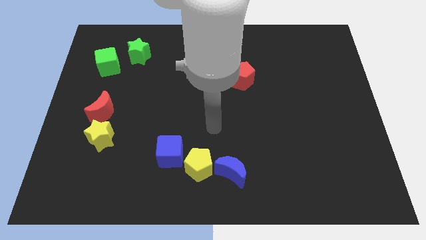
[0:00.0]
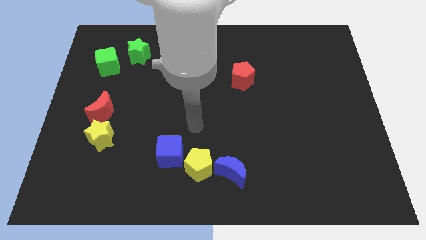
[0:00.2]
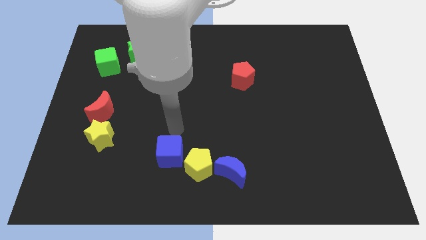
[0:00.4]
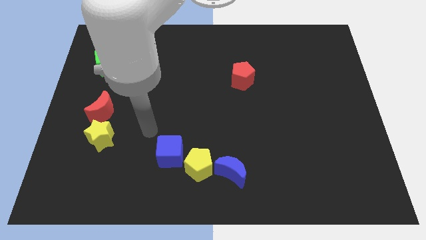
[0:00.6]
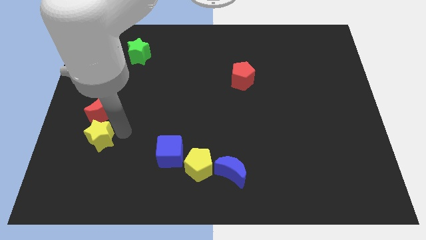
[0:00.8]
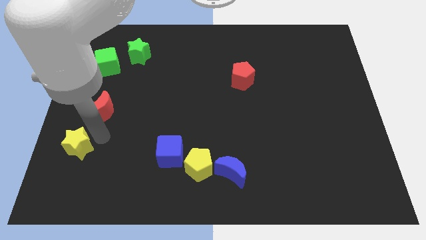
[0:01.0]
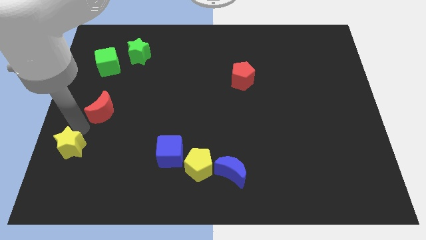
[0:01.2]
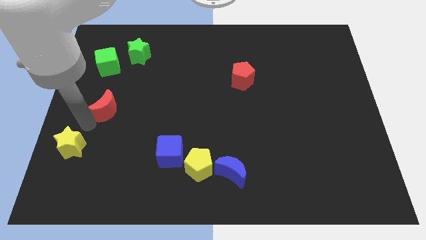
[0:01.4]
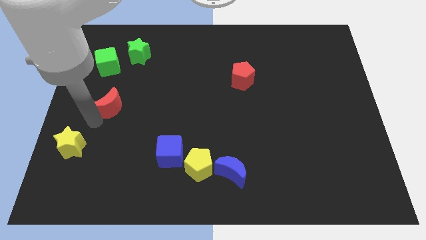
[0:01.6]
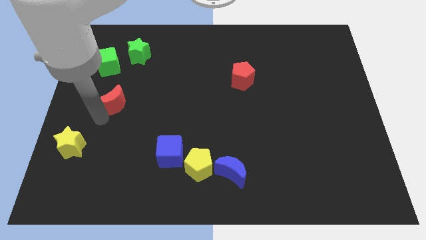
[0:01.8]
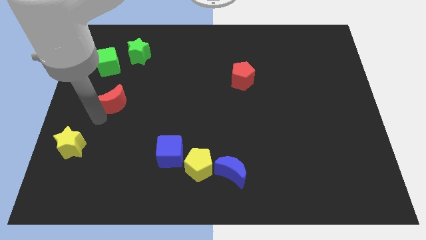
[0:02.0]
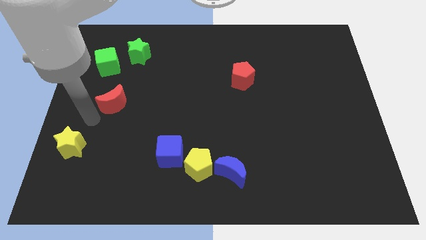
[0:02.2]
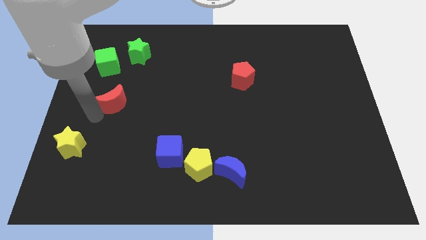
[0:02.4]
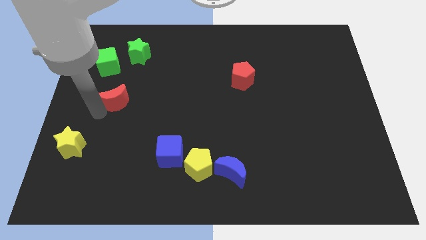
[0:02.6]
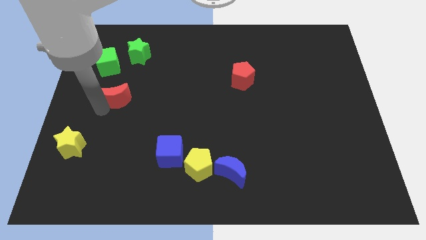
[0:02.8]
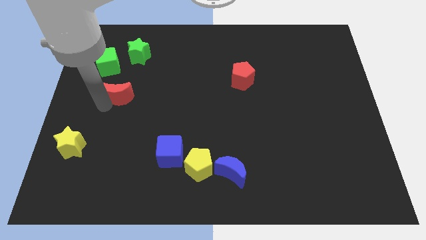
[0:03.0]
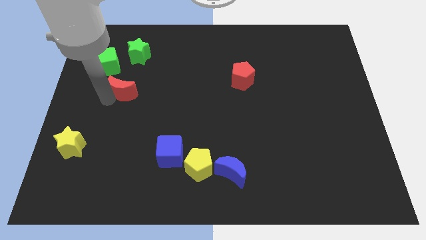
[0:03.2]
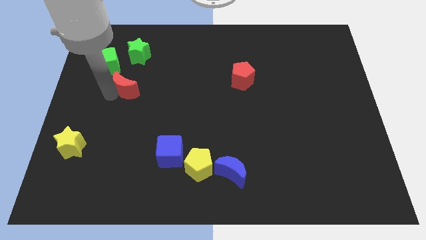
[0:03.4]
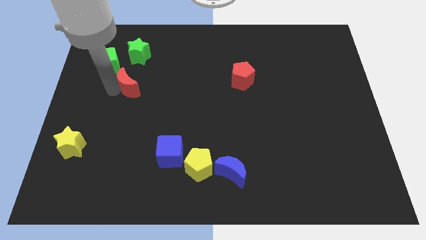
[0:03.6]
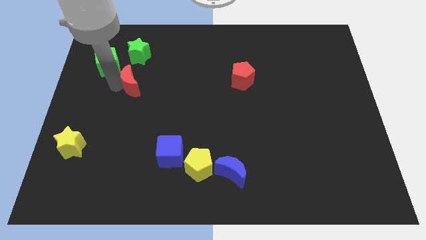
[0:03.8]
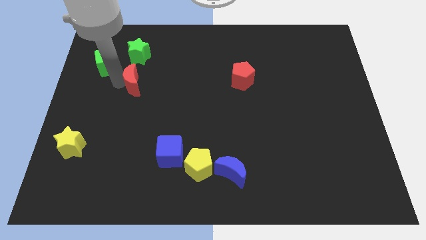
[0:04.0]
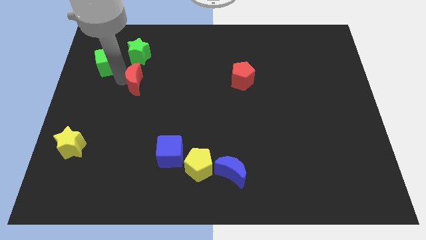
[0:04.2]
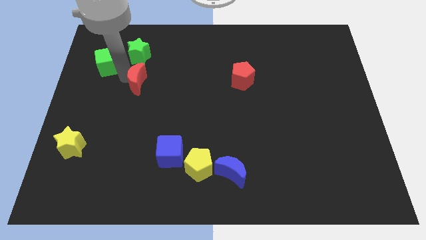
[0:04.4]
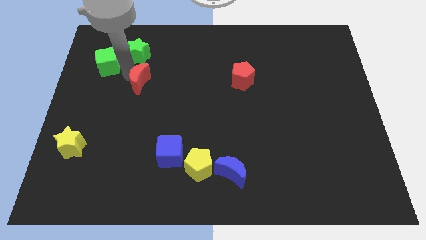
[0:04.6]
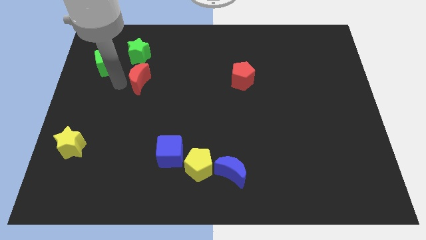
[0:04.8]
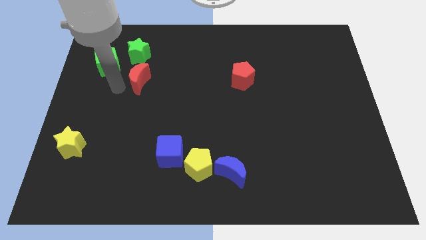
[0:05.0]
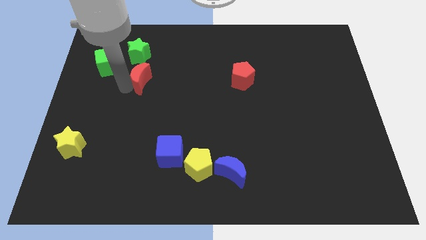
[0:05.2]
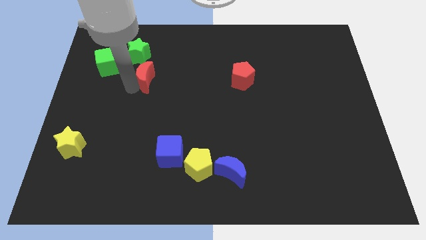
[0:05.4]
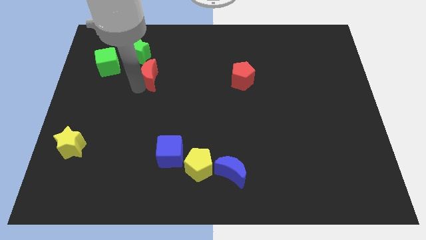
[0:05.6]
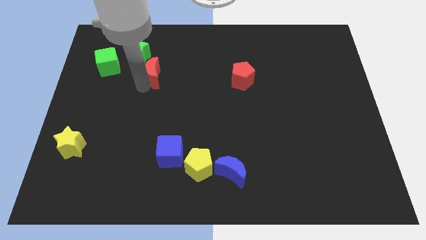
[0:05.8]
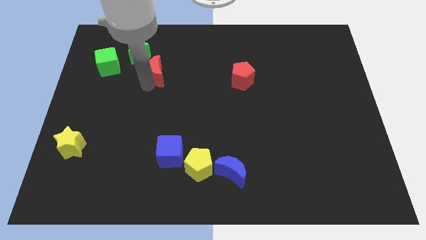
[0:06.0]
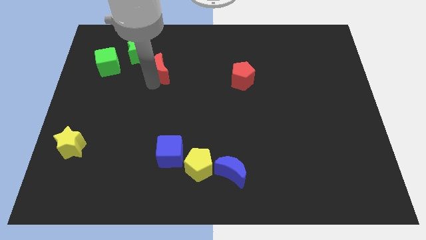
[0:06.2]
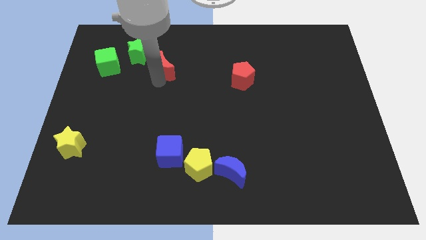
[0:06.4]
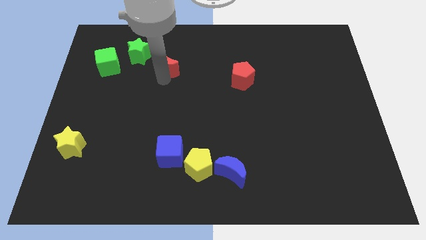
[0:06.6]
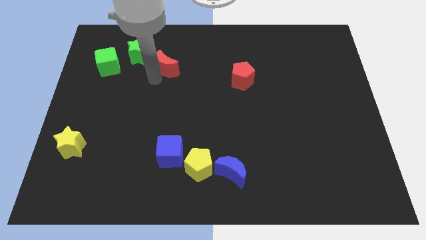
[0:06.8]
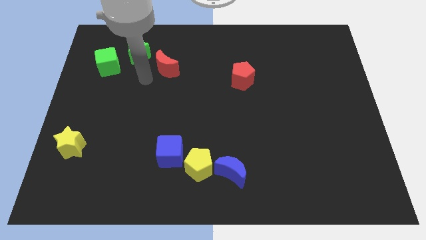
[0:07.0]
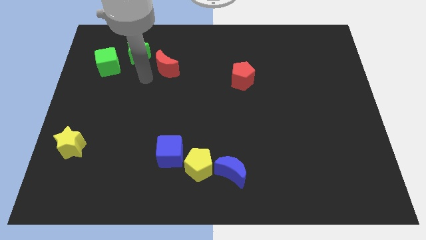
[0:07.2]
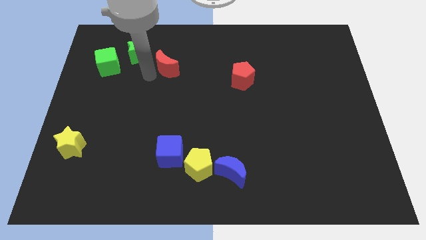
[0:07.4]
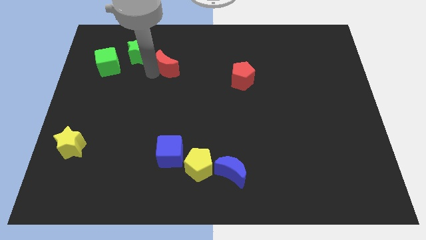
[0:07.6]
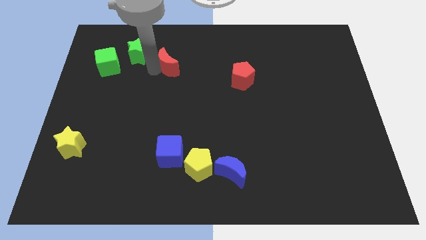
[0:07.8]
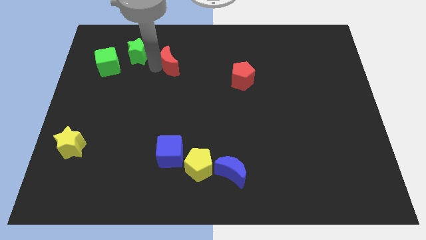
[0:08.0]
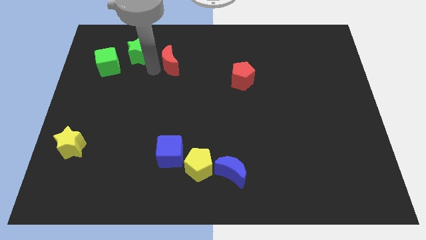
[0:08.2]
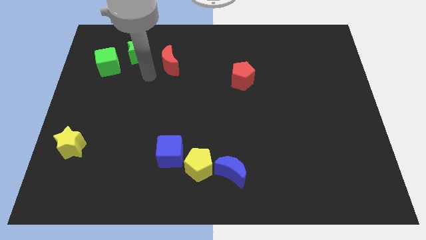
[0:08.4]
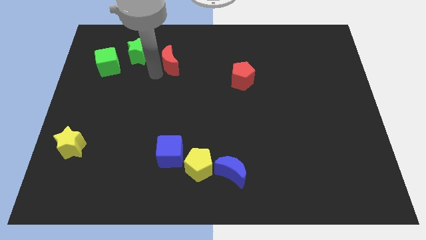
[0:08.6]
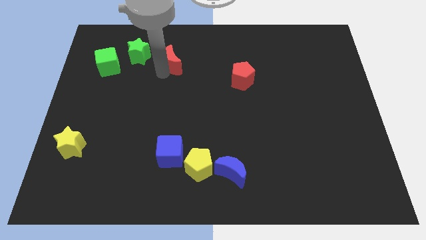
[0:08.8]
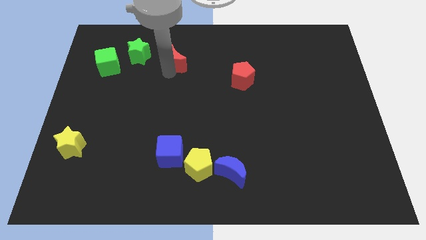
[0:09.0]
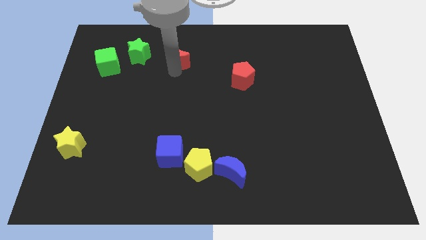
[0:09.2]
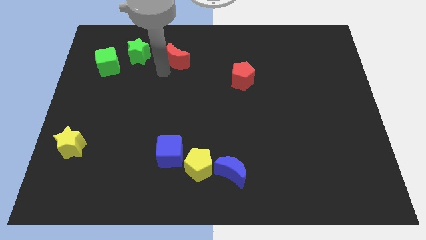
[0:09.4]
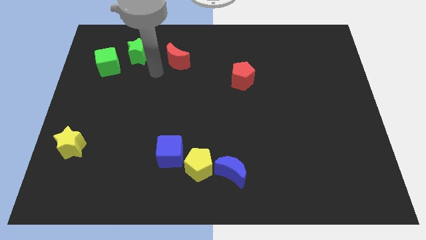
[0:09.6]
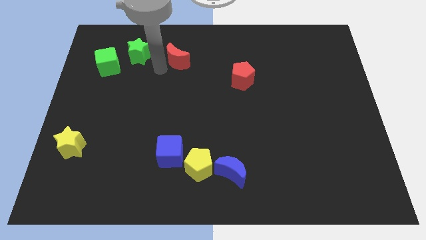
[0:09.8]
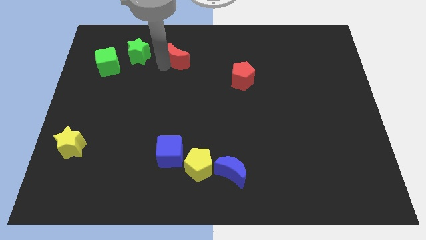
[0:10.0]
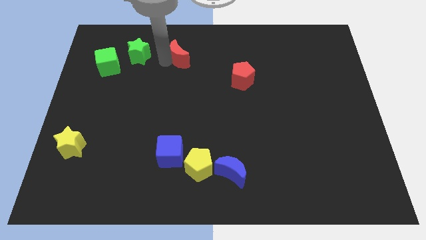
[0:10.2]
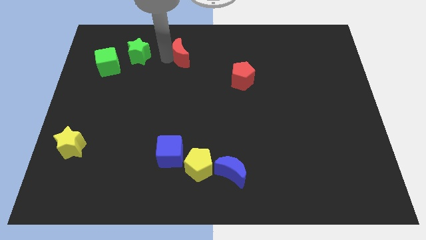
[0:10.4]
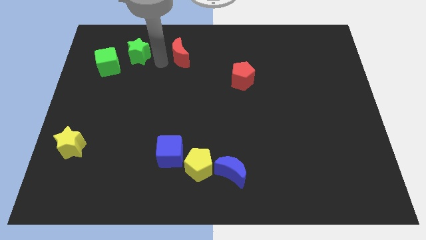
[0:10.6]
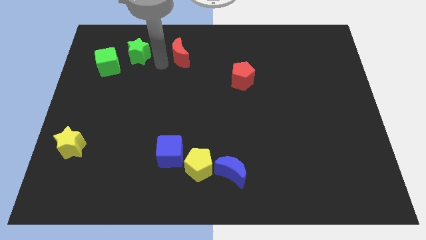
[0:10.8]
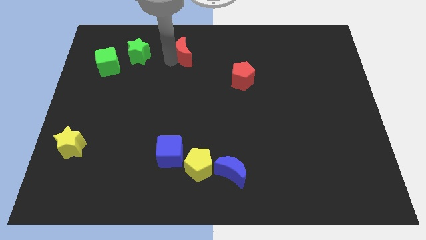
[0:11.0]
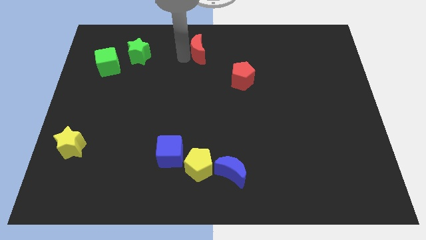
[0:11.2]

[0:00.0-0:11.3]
slide the red moon to the towards your base

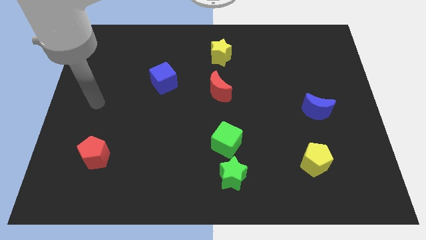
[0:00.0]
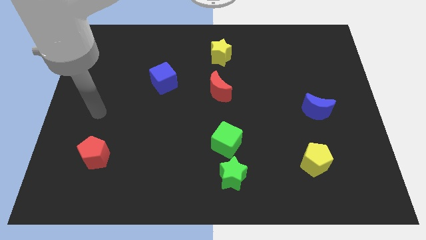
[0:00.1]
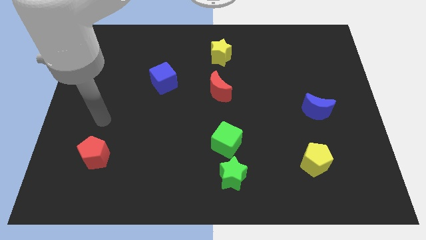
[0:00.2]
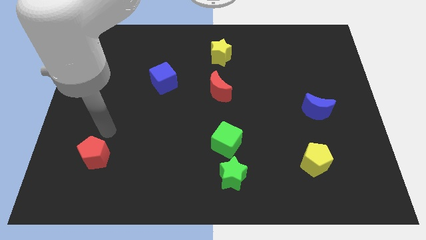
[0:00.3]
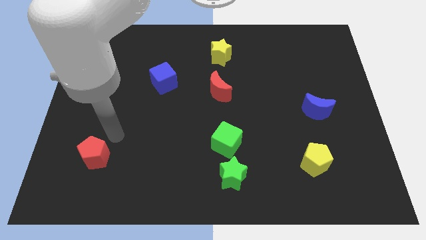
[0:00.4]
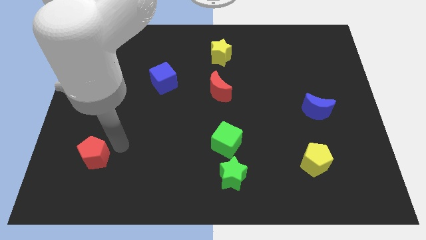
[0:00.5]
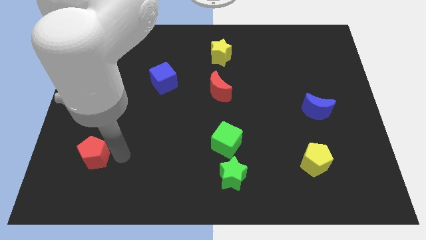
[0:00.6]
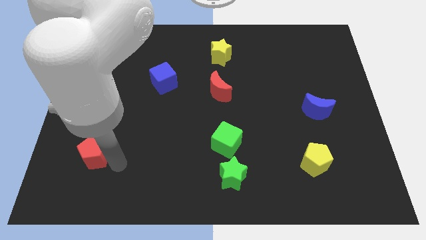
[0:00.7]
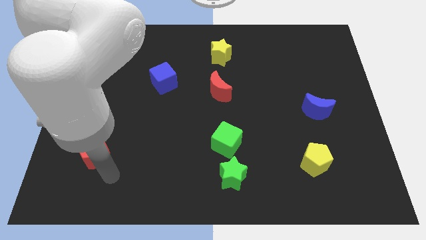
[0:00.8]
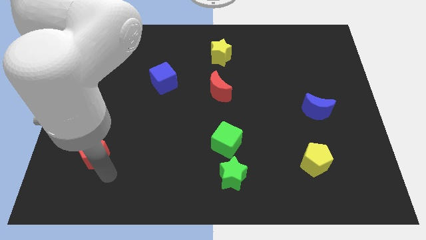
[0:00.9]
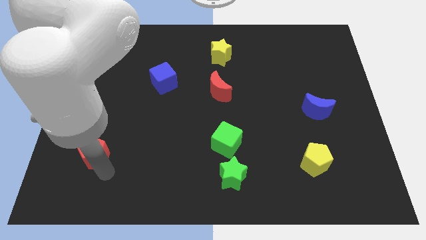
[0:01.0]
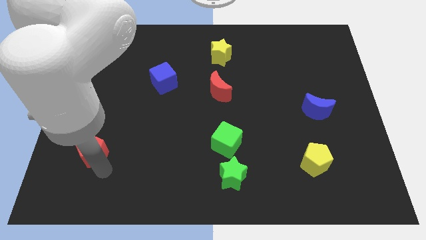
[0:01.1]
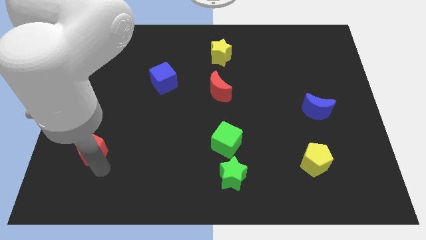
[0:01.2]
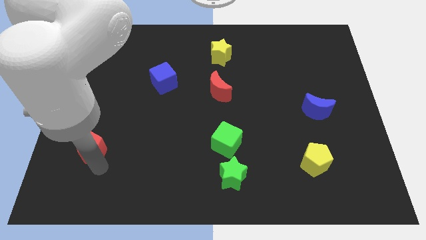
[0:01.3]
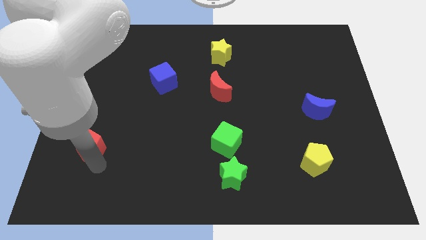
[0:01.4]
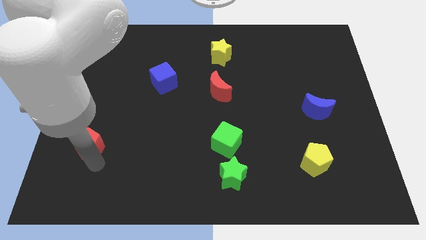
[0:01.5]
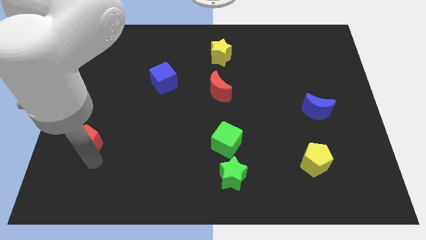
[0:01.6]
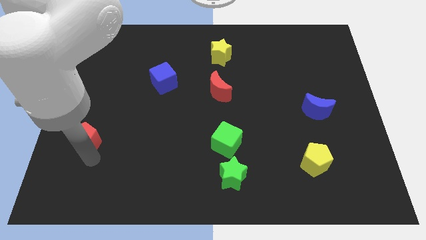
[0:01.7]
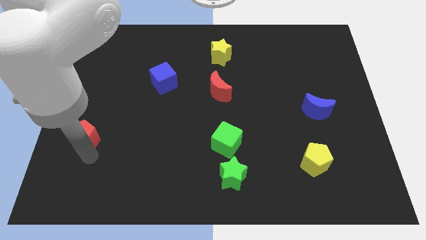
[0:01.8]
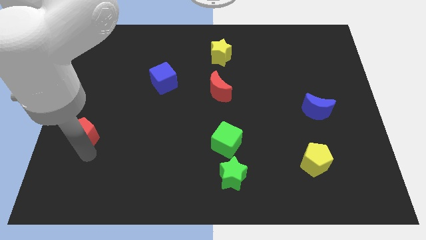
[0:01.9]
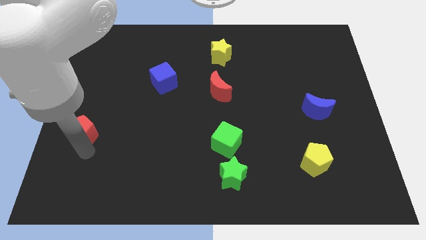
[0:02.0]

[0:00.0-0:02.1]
slide the red pentagon to the left side
